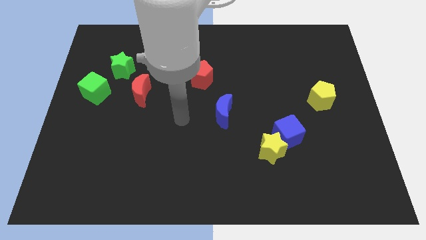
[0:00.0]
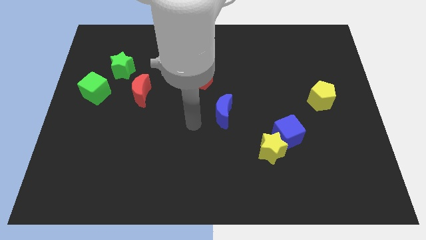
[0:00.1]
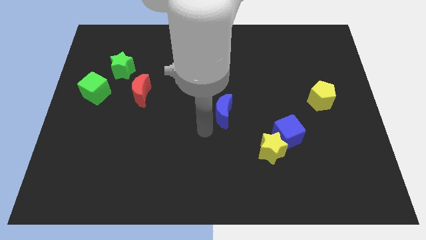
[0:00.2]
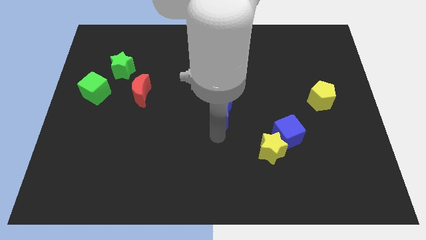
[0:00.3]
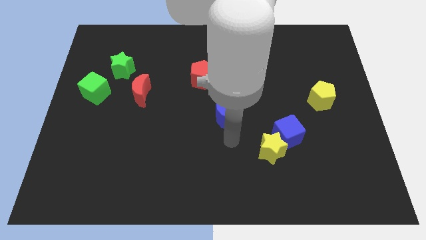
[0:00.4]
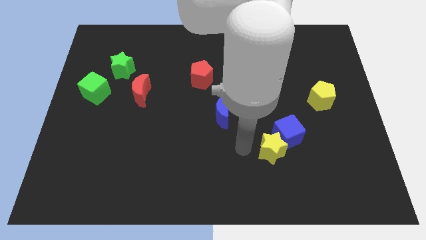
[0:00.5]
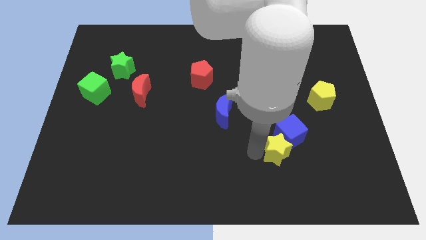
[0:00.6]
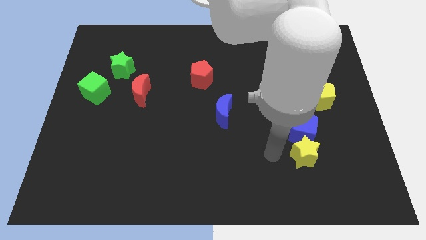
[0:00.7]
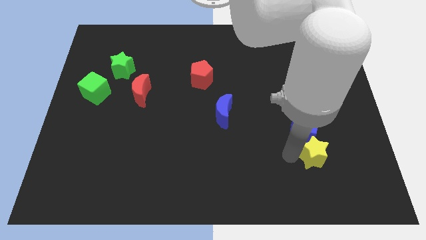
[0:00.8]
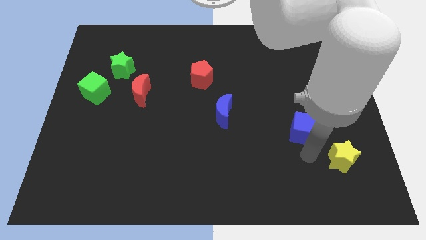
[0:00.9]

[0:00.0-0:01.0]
pull the blue cube apart from the yellow star

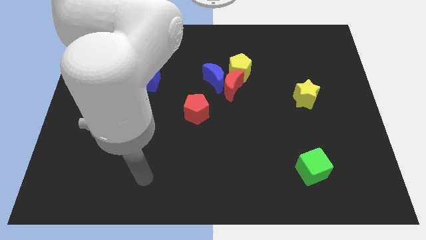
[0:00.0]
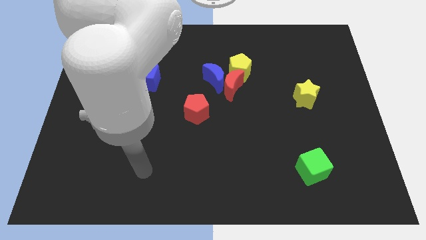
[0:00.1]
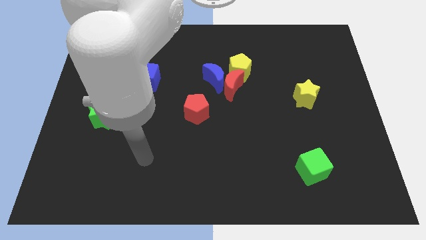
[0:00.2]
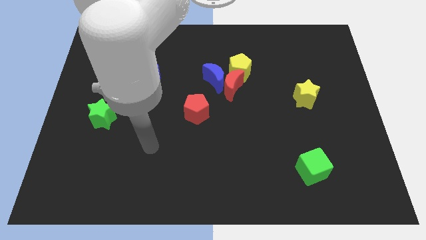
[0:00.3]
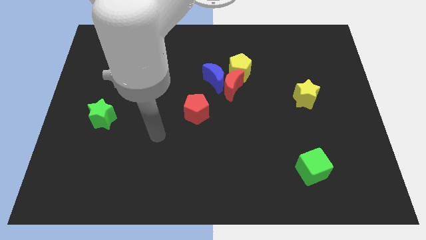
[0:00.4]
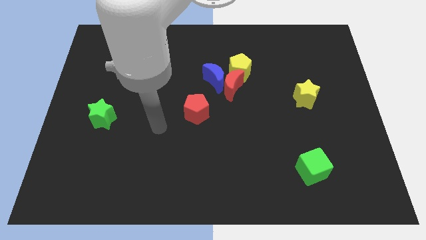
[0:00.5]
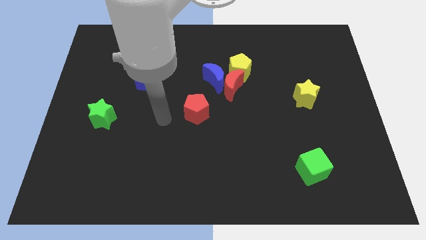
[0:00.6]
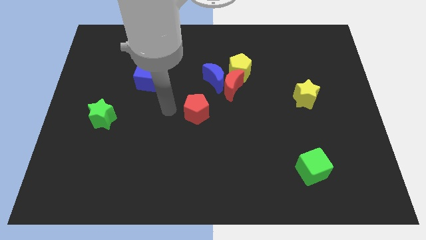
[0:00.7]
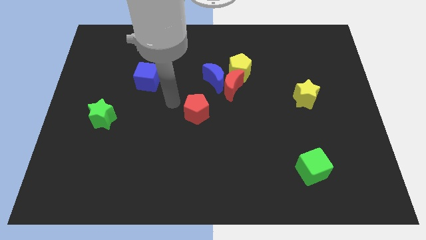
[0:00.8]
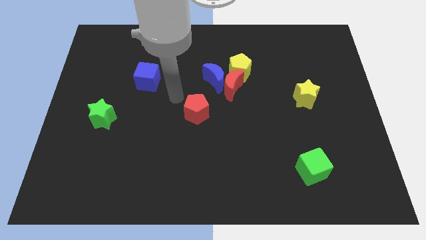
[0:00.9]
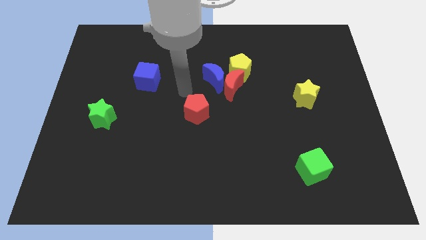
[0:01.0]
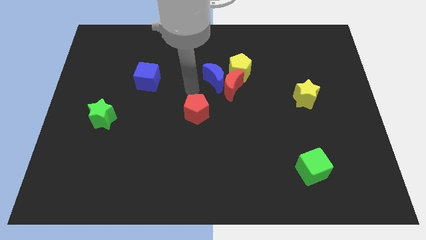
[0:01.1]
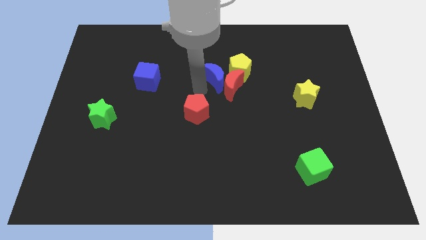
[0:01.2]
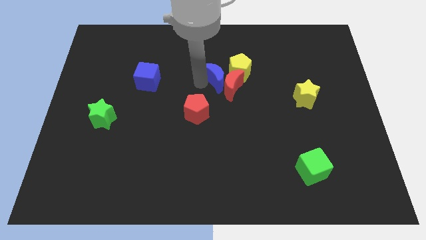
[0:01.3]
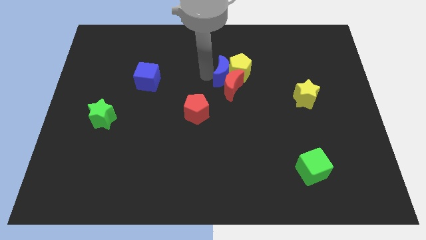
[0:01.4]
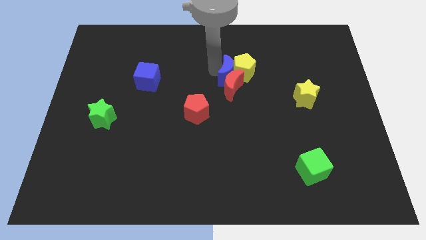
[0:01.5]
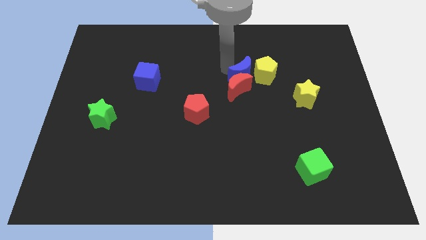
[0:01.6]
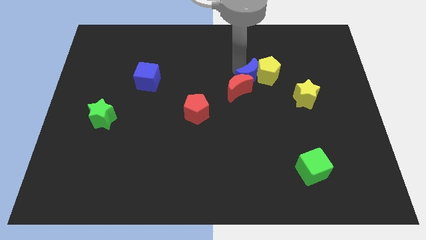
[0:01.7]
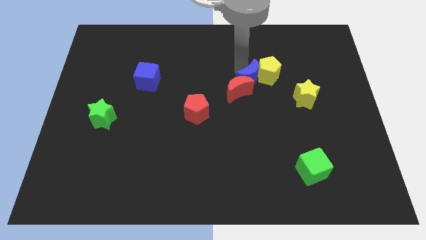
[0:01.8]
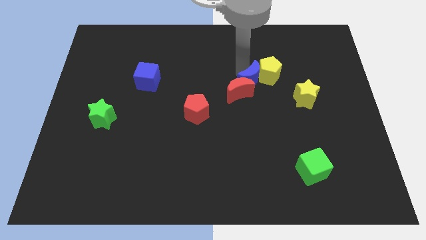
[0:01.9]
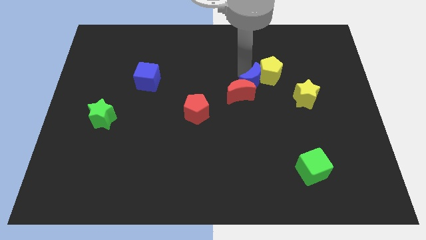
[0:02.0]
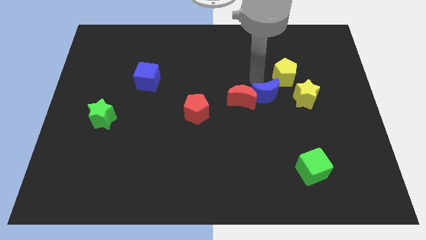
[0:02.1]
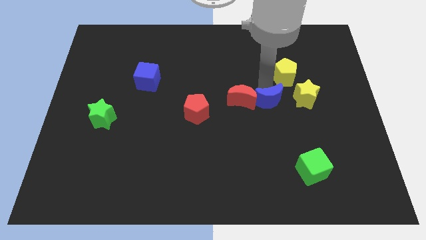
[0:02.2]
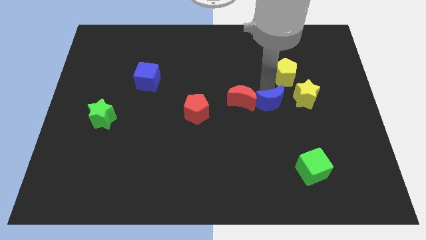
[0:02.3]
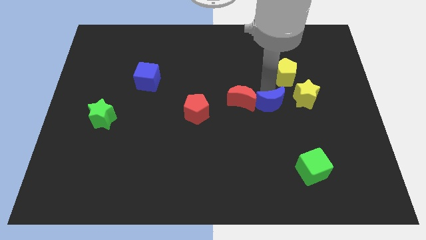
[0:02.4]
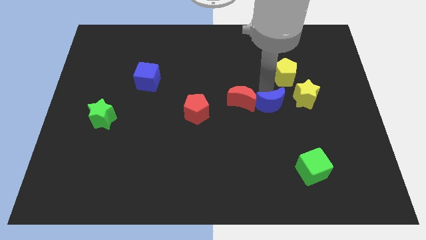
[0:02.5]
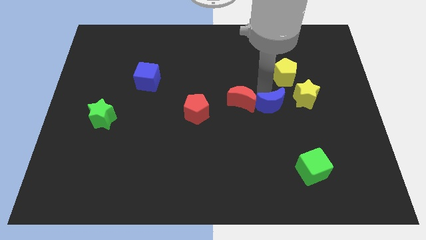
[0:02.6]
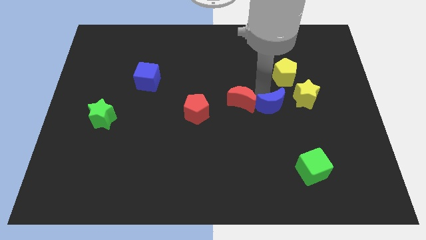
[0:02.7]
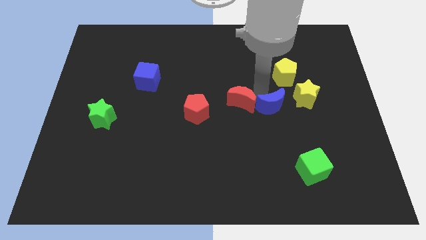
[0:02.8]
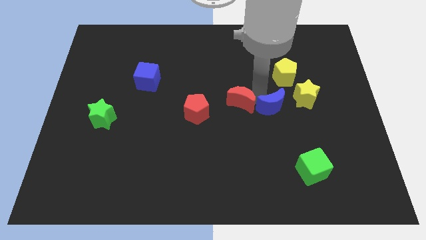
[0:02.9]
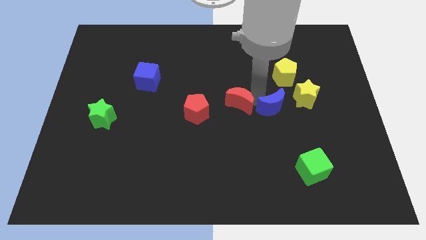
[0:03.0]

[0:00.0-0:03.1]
pull the red moon apart from the blue moon and yellow pentagon

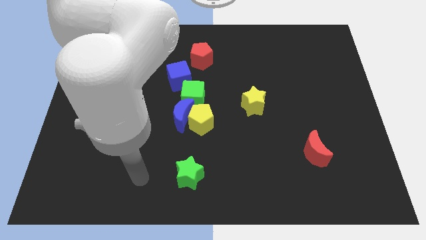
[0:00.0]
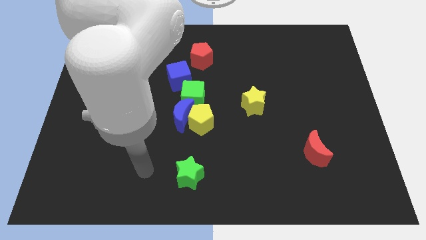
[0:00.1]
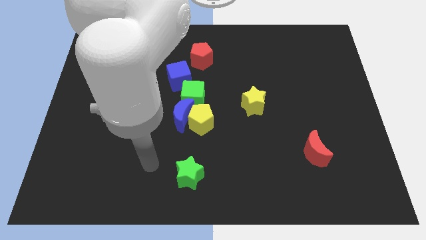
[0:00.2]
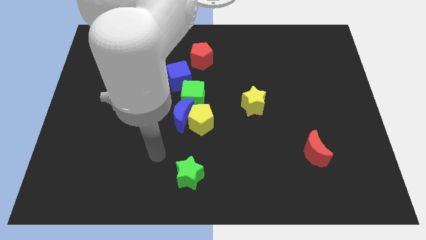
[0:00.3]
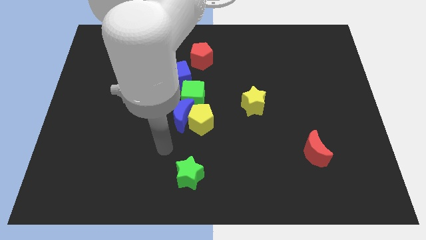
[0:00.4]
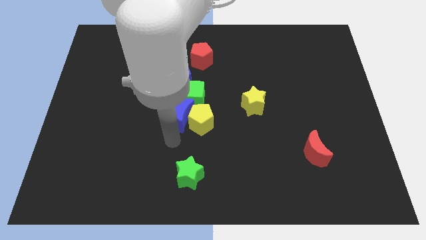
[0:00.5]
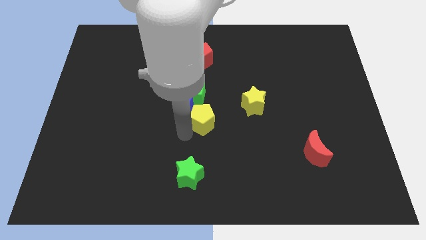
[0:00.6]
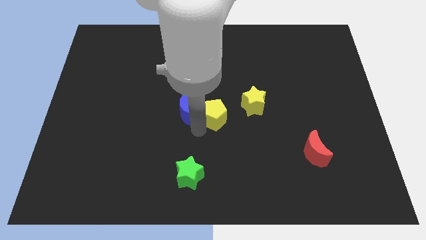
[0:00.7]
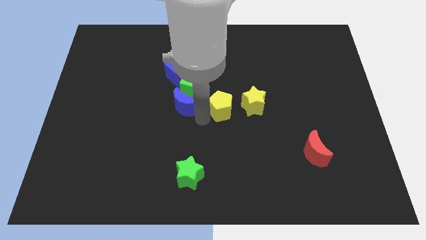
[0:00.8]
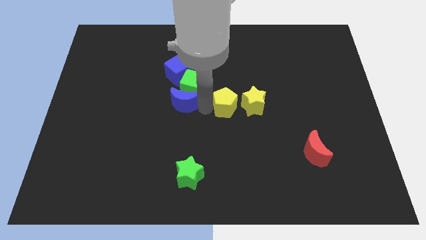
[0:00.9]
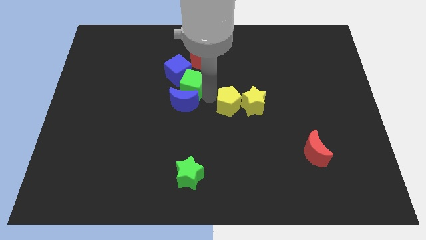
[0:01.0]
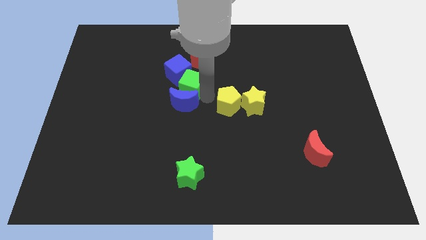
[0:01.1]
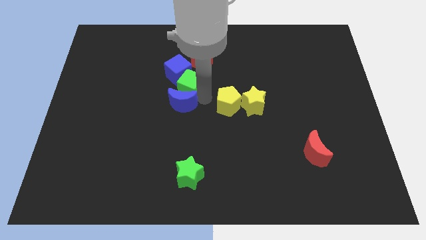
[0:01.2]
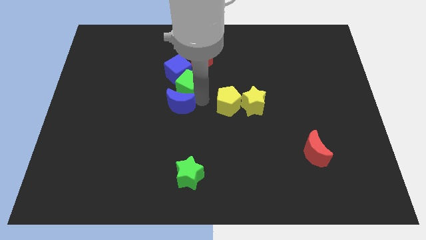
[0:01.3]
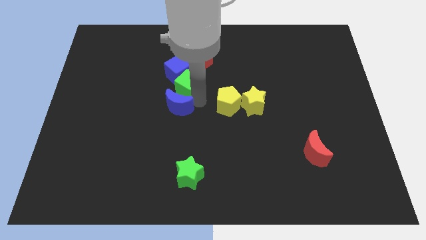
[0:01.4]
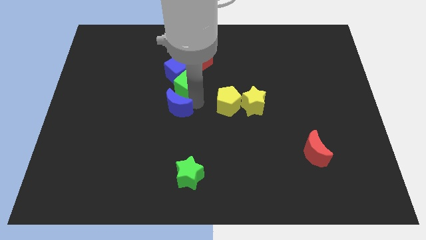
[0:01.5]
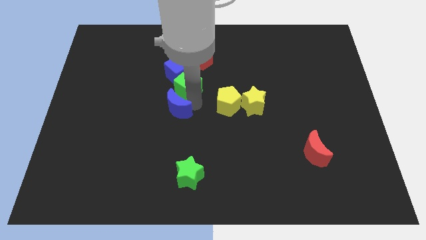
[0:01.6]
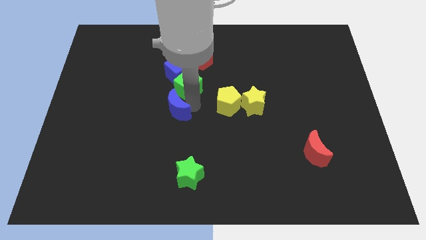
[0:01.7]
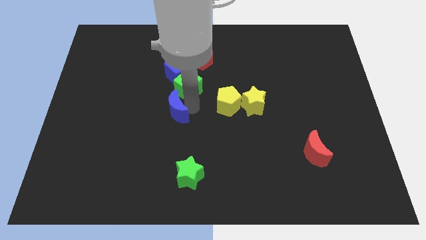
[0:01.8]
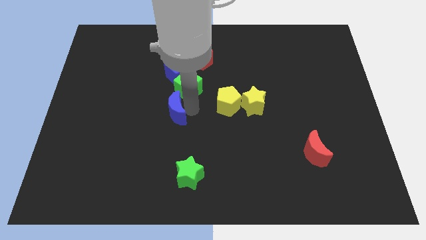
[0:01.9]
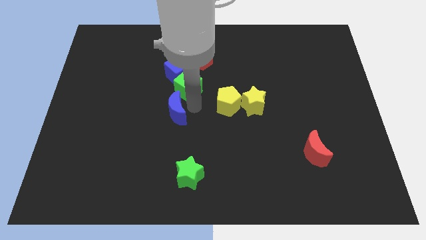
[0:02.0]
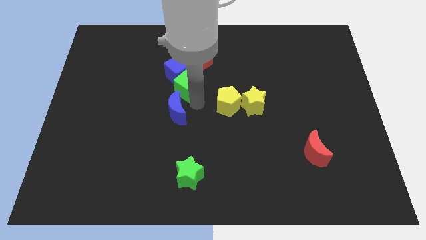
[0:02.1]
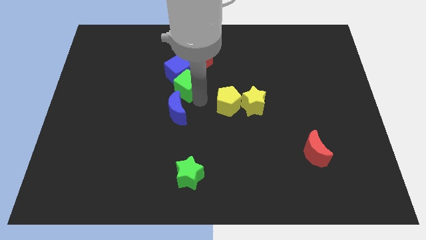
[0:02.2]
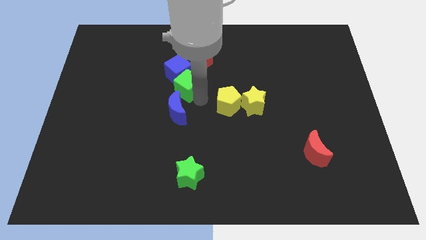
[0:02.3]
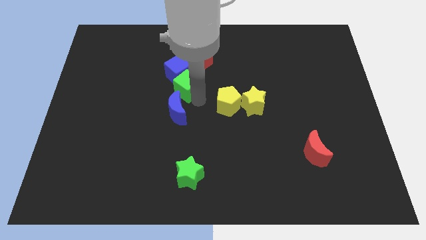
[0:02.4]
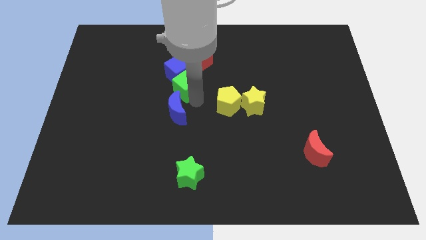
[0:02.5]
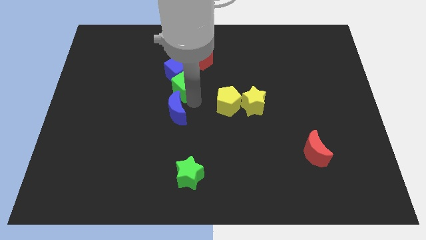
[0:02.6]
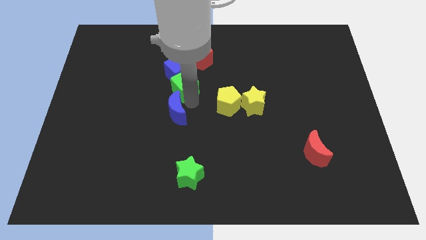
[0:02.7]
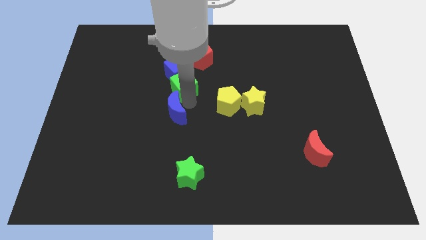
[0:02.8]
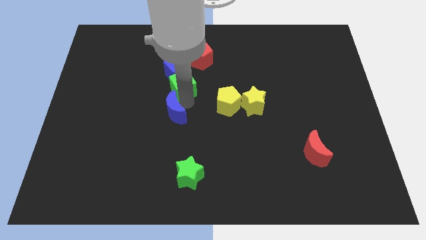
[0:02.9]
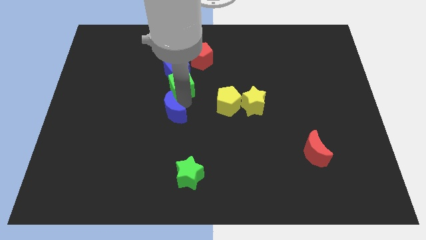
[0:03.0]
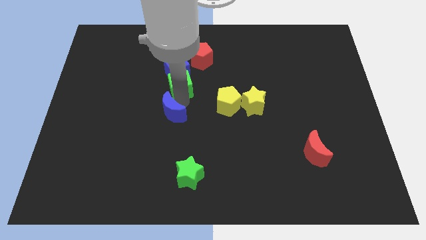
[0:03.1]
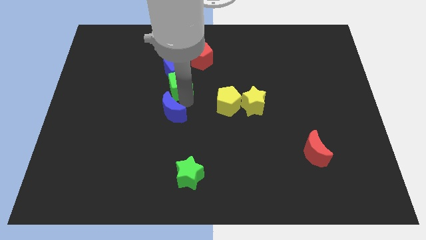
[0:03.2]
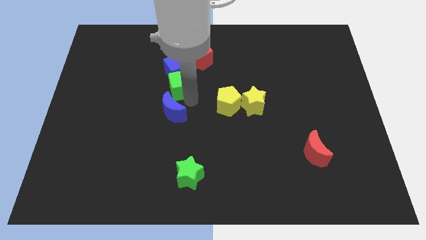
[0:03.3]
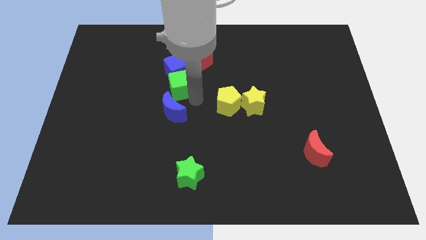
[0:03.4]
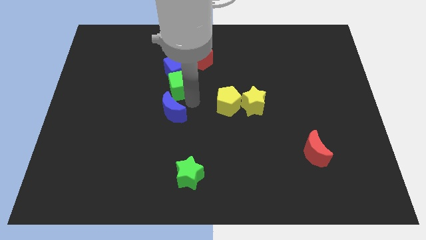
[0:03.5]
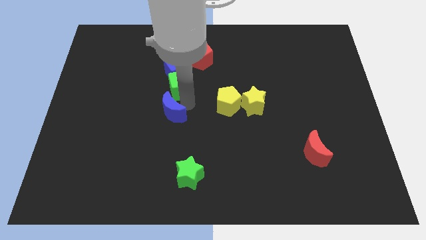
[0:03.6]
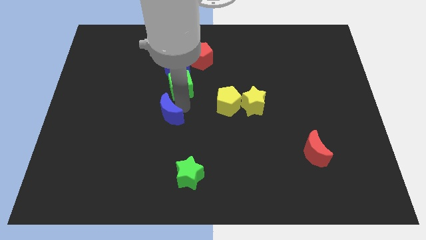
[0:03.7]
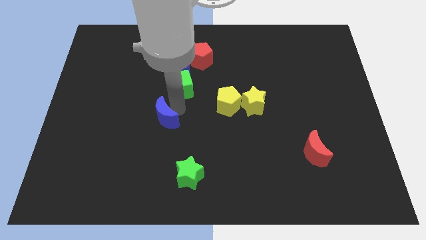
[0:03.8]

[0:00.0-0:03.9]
pull the blue moon apart from the yellow pentagon and green cube

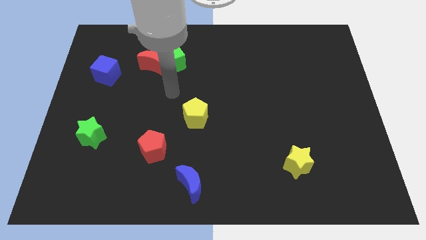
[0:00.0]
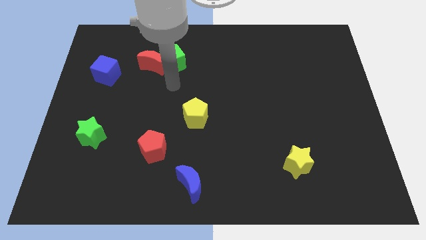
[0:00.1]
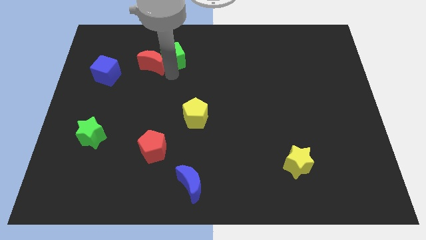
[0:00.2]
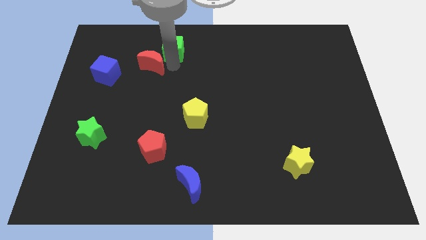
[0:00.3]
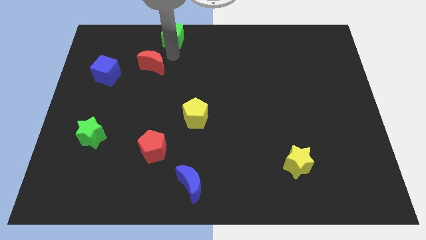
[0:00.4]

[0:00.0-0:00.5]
pull the red moon apart from the green cube

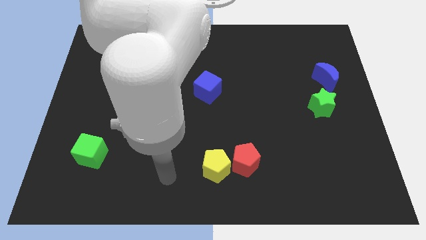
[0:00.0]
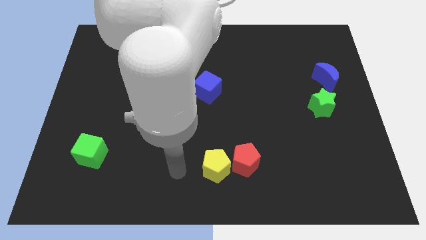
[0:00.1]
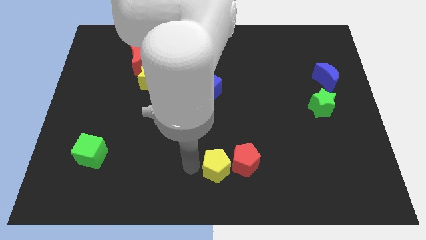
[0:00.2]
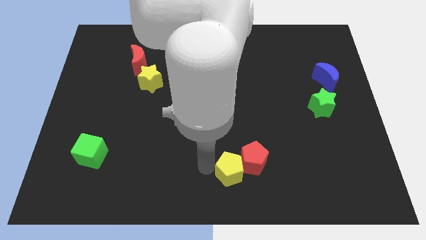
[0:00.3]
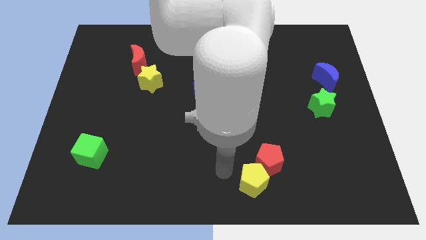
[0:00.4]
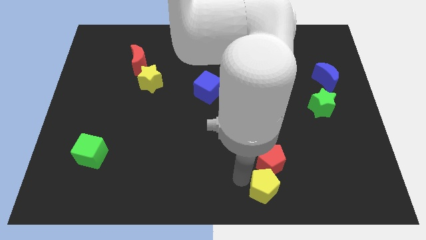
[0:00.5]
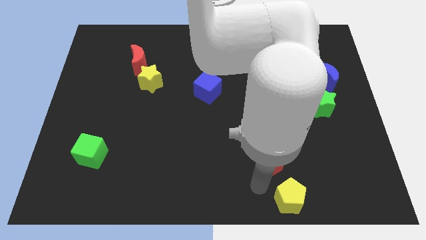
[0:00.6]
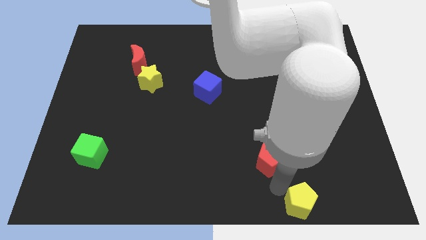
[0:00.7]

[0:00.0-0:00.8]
move the red pentagon away from the yellow pentagon

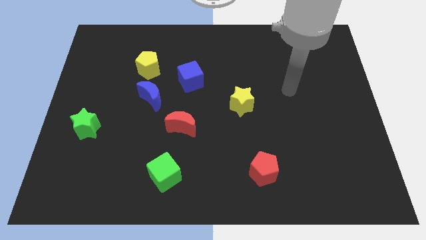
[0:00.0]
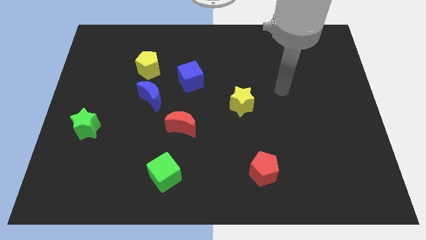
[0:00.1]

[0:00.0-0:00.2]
move the blue moon away from the yellow pentagon
